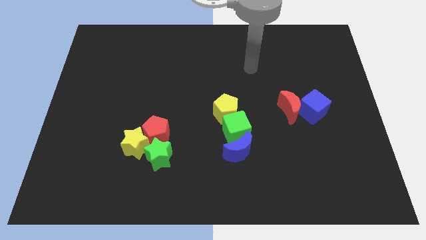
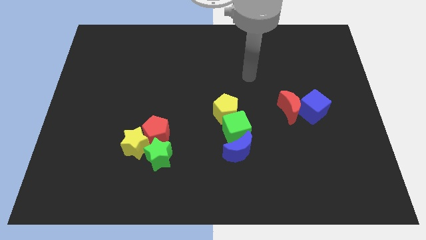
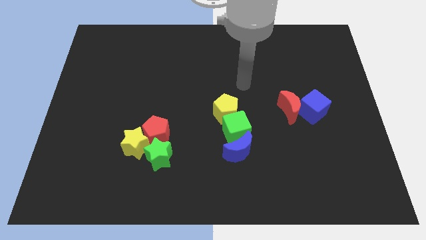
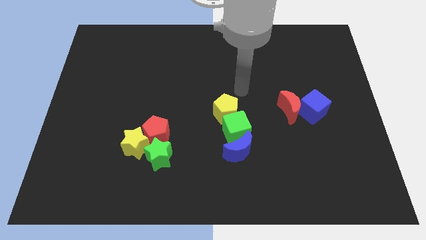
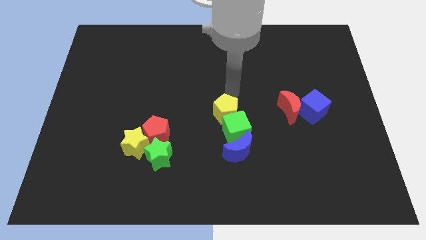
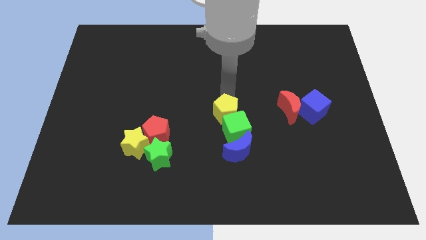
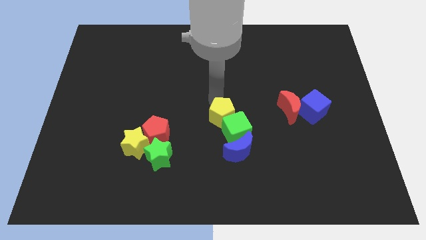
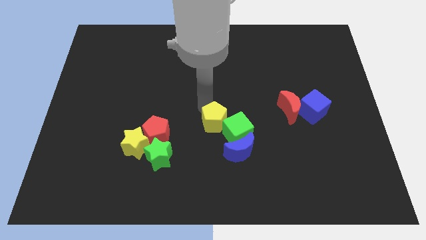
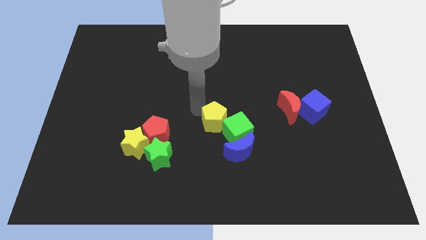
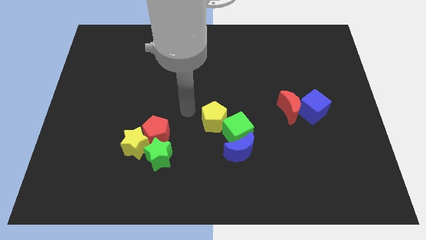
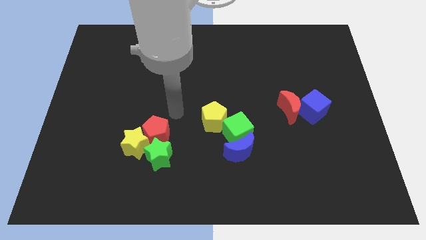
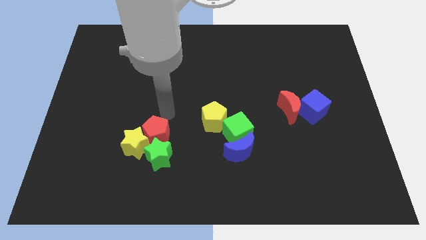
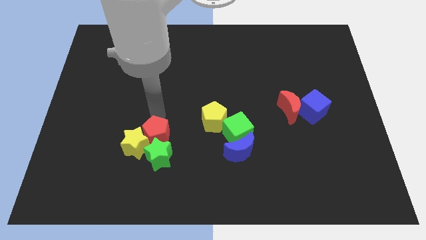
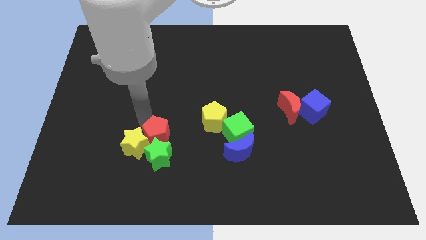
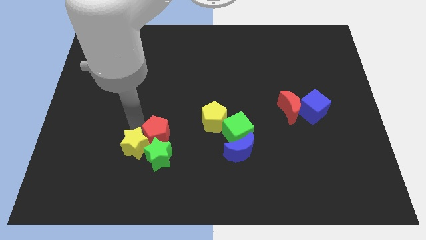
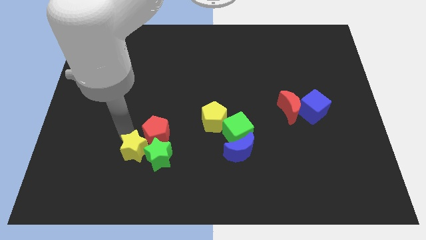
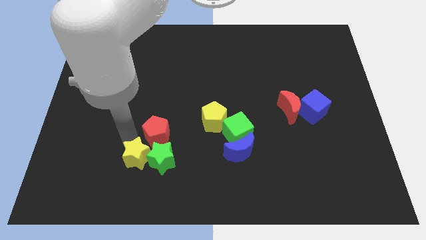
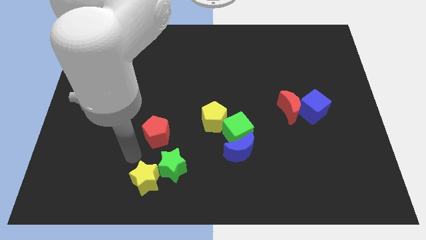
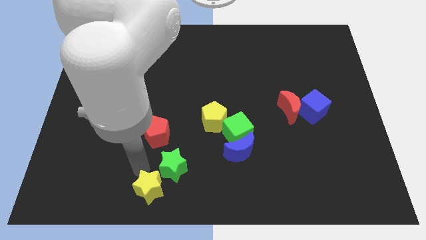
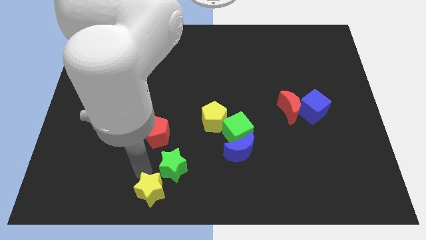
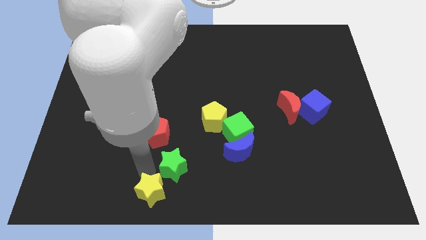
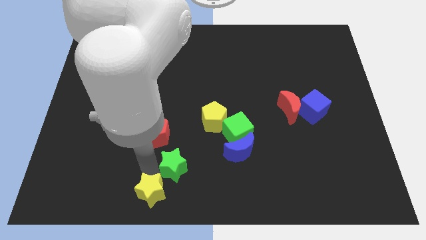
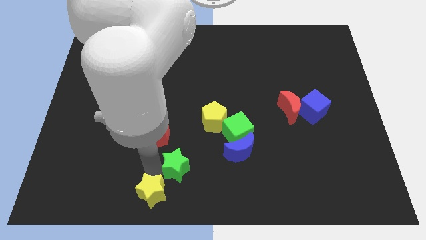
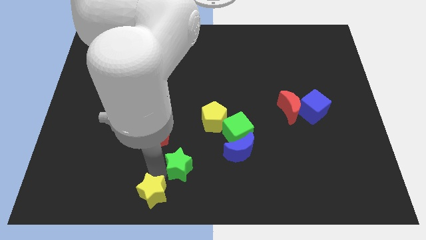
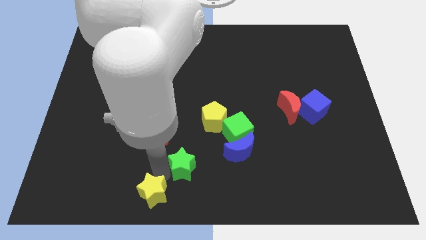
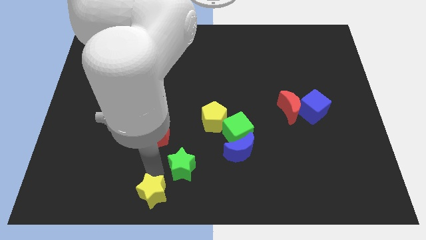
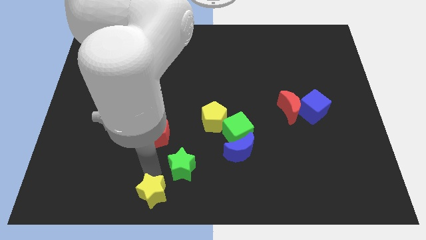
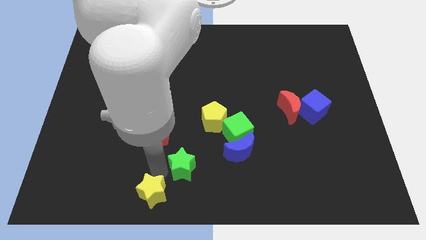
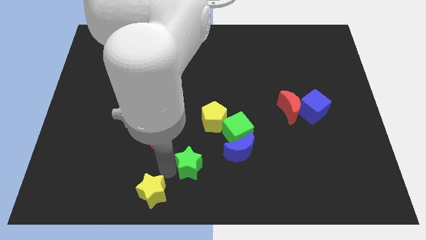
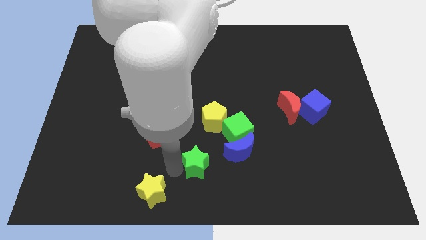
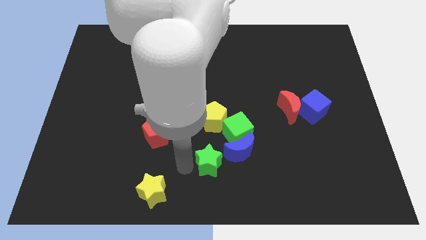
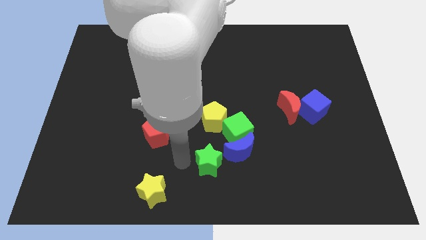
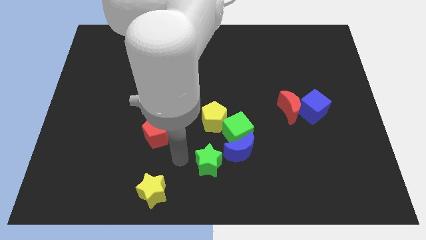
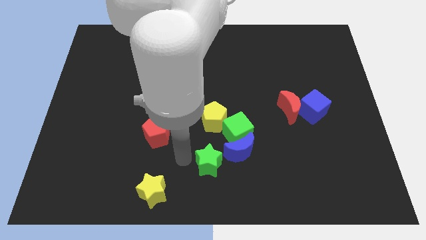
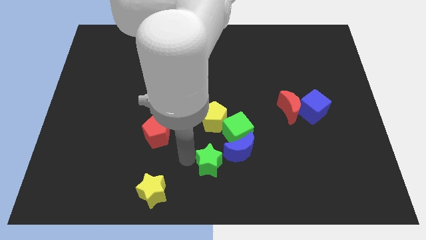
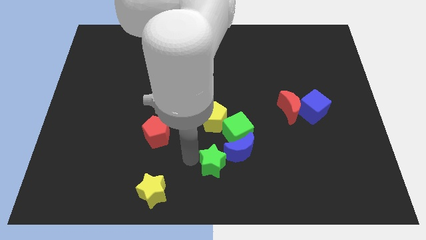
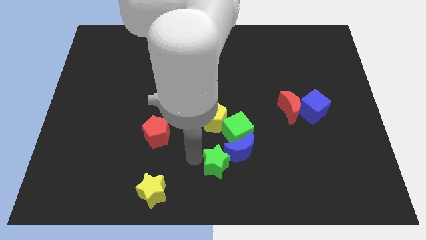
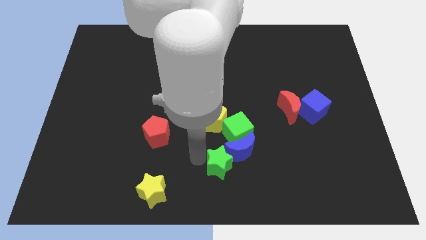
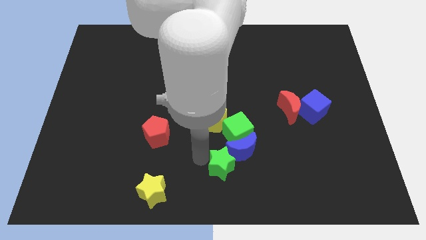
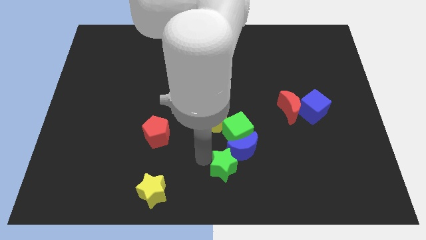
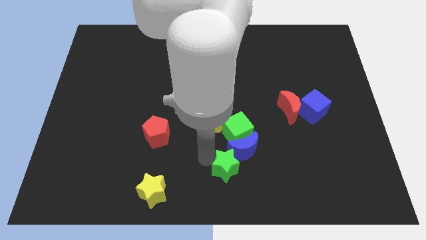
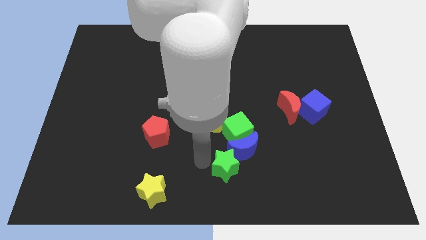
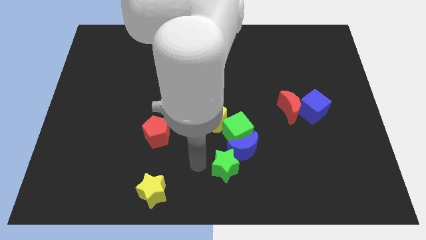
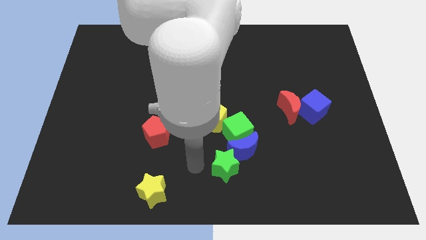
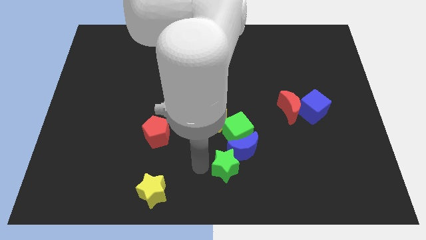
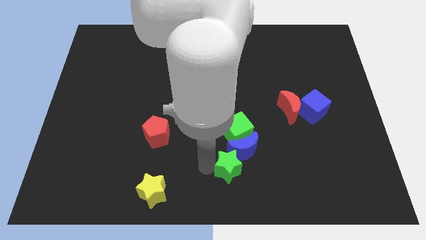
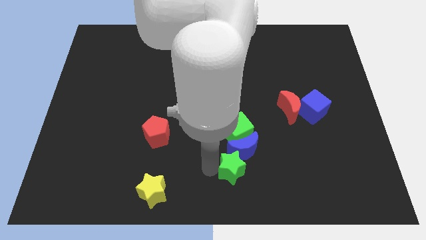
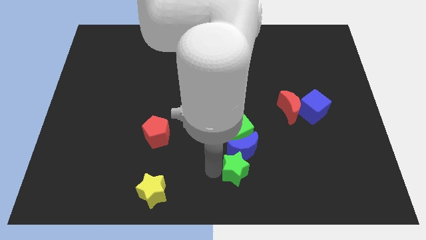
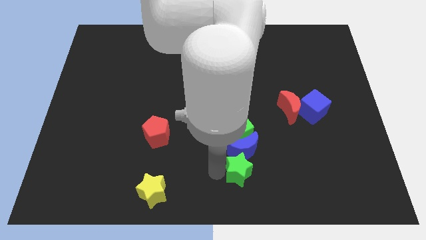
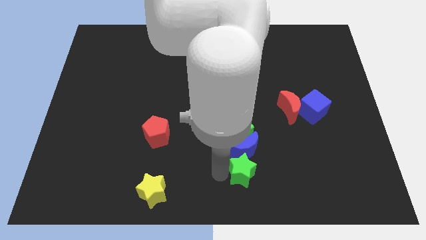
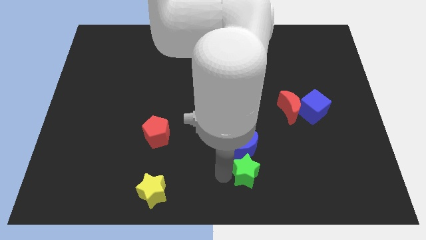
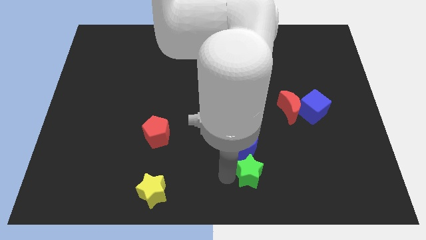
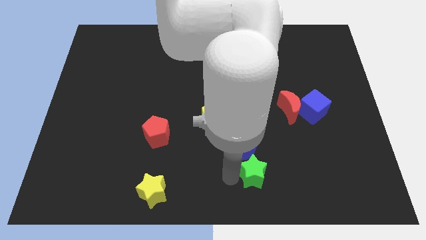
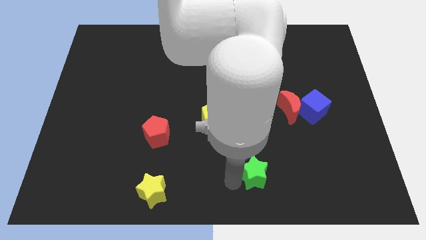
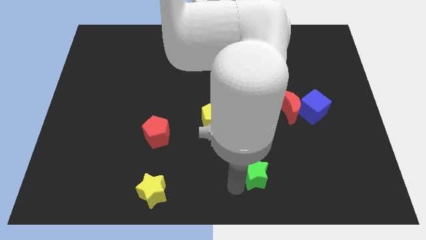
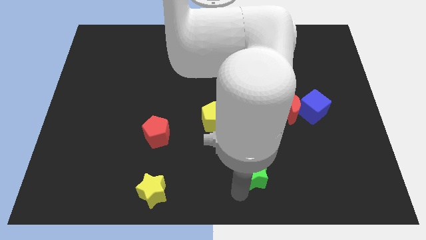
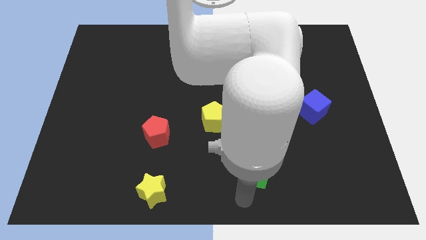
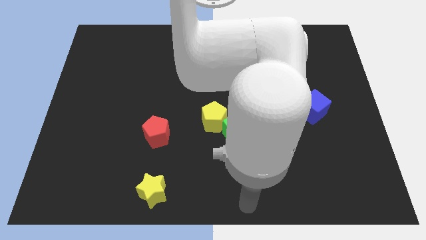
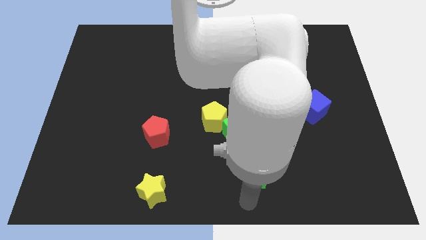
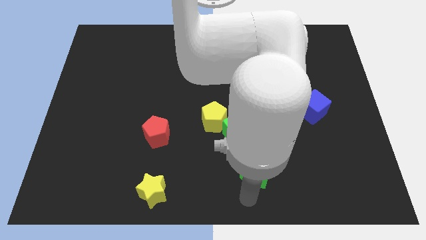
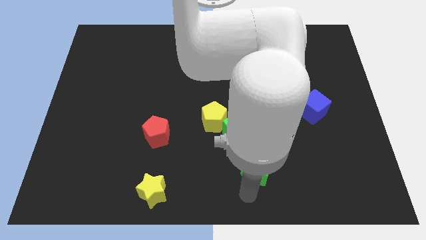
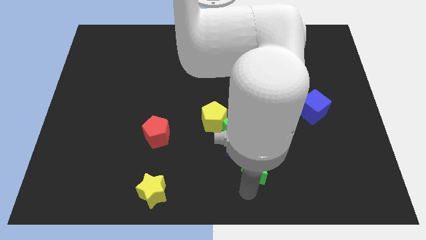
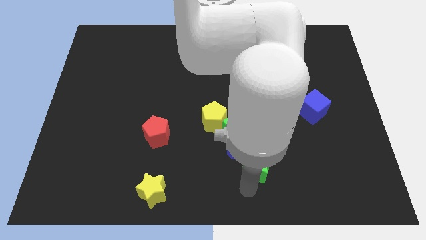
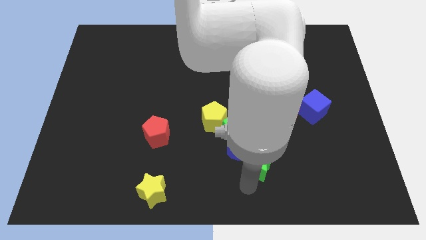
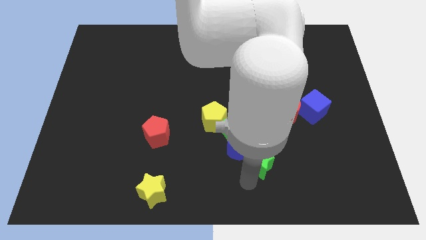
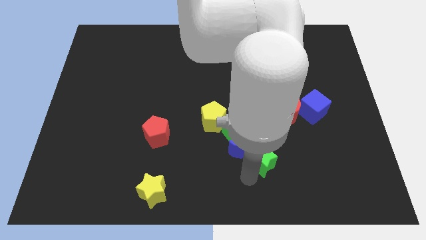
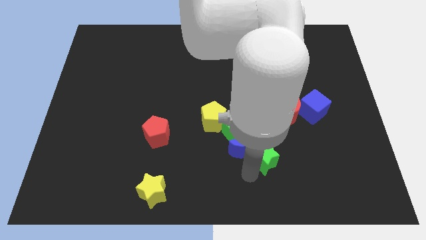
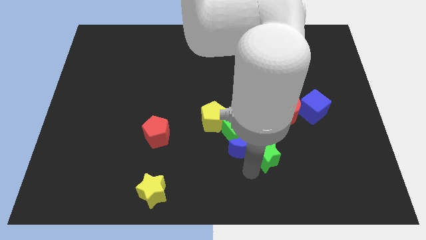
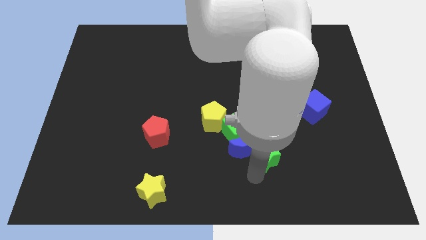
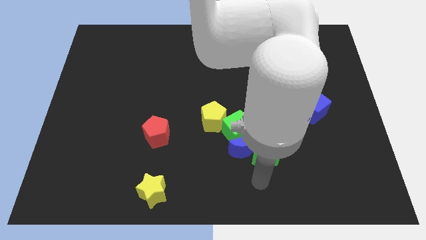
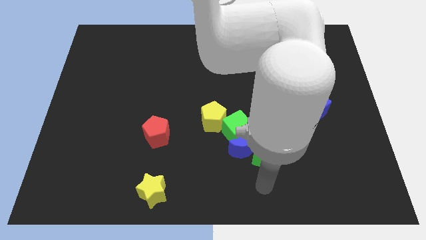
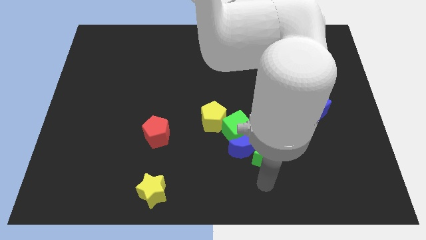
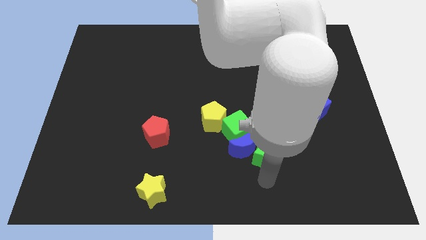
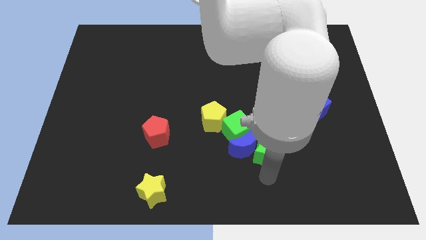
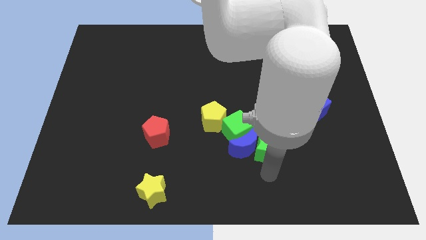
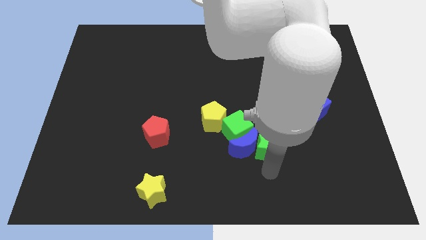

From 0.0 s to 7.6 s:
slide the green star right of the green cube

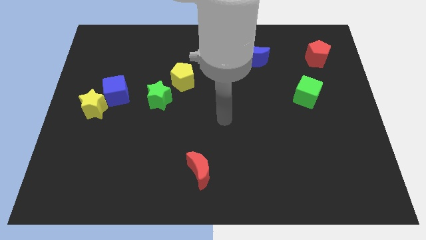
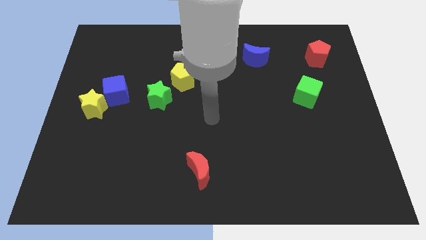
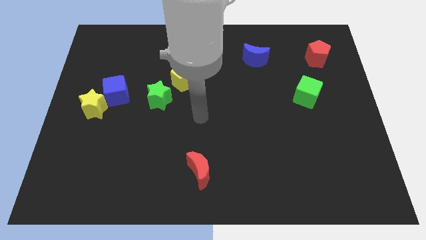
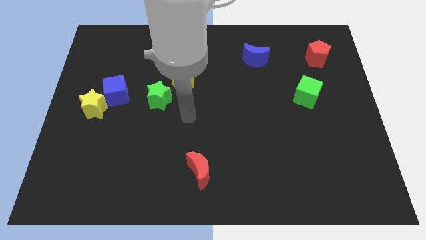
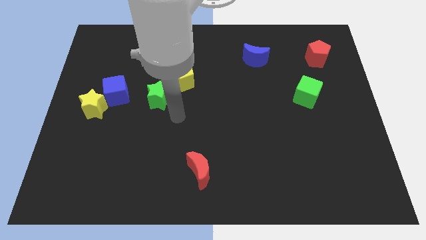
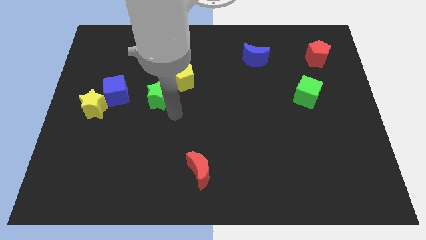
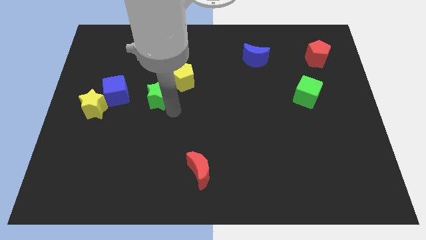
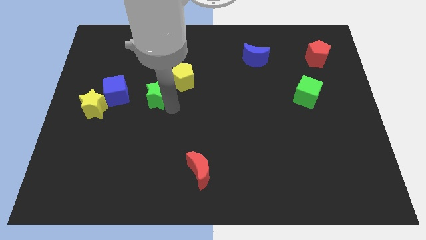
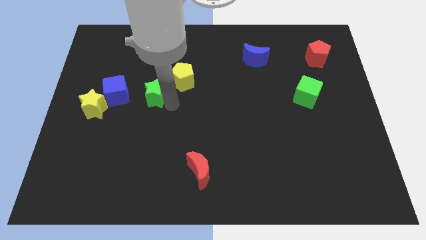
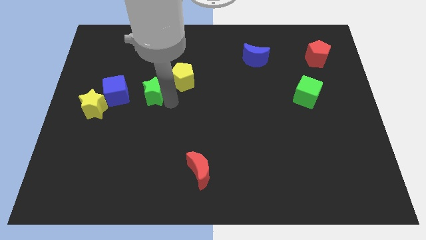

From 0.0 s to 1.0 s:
push the green star just left of the yellow pentagon
